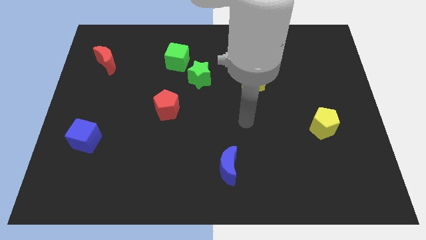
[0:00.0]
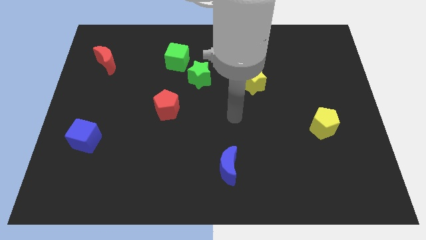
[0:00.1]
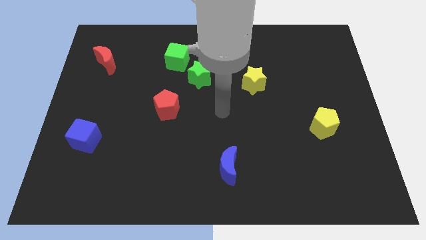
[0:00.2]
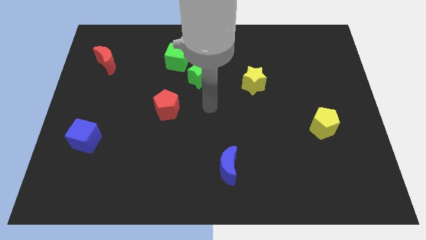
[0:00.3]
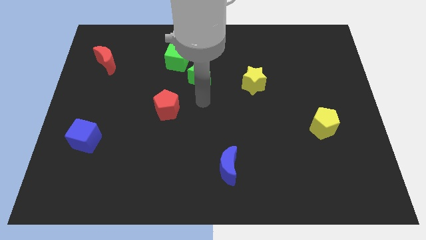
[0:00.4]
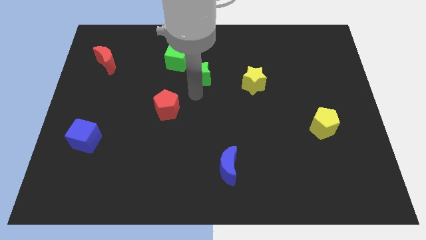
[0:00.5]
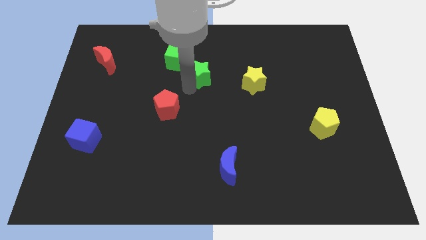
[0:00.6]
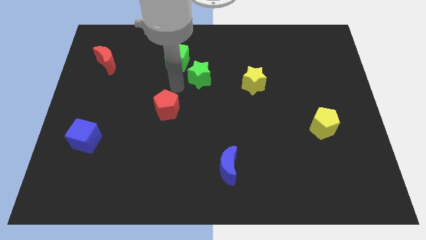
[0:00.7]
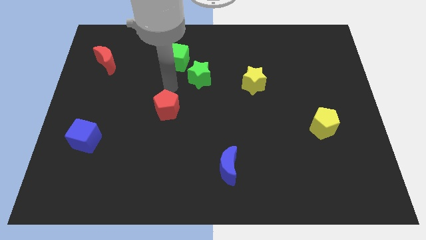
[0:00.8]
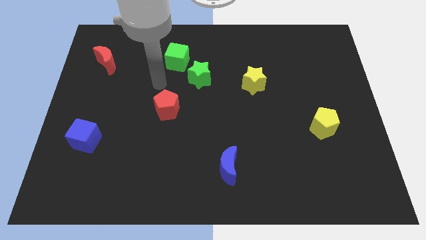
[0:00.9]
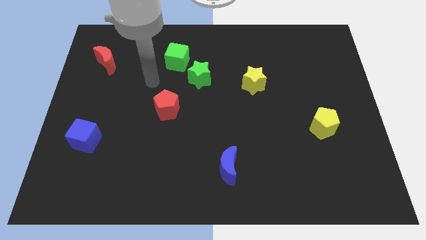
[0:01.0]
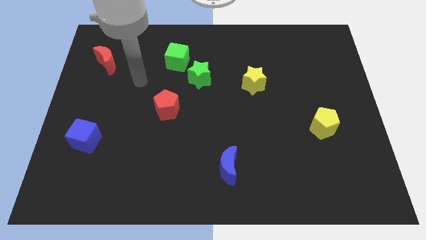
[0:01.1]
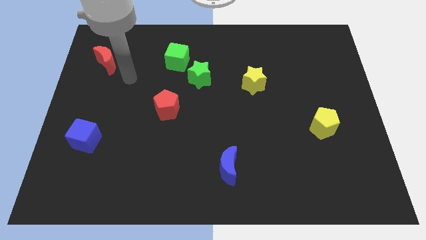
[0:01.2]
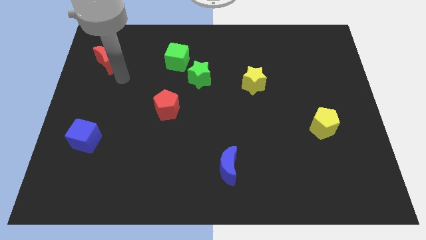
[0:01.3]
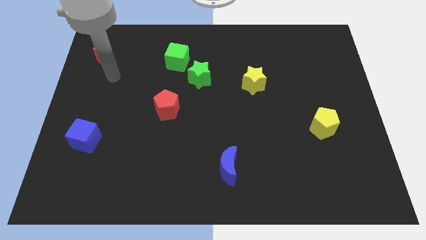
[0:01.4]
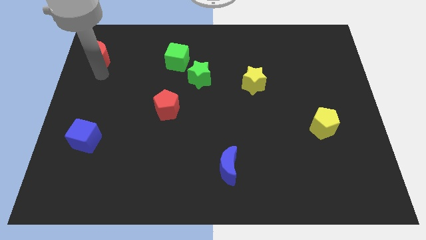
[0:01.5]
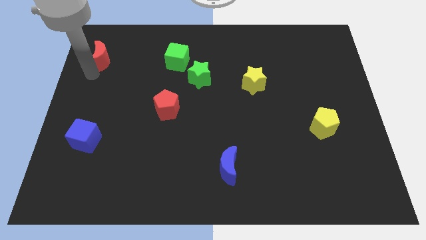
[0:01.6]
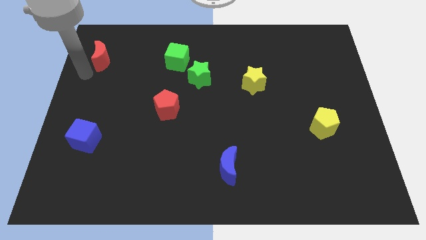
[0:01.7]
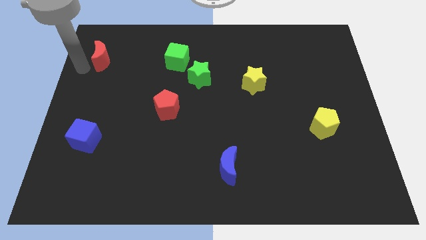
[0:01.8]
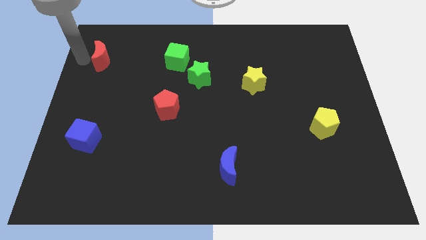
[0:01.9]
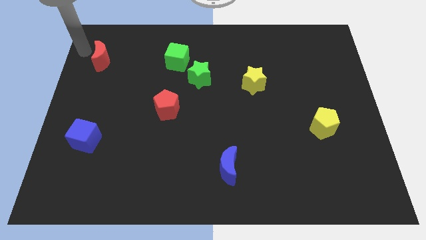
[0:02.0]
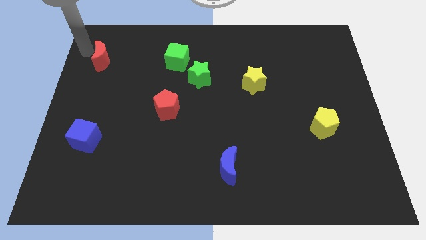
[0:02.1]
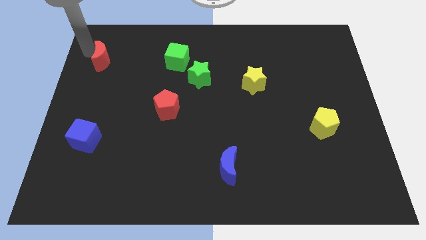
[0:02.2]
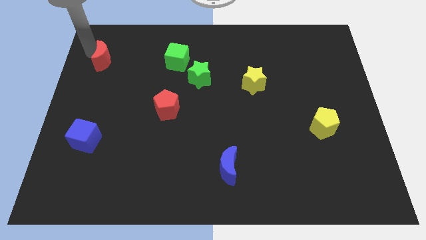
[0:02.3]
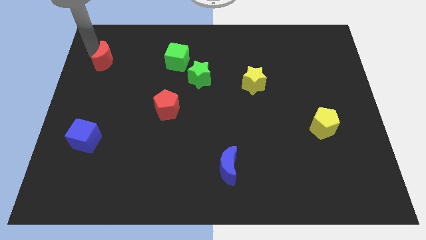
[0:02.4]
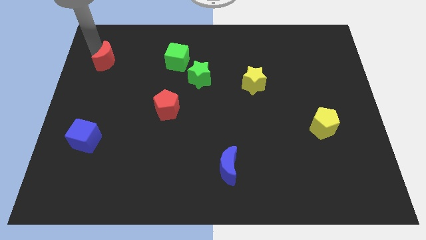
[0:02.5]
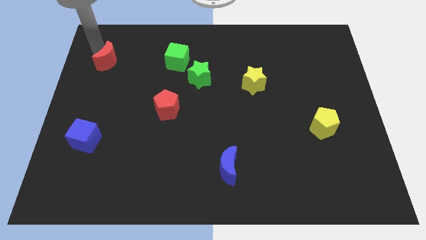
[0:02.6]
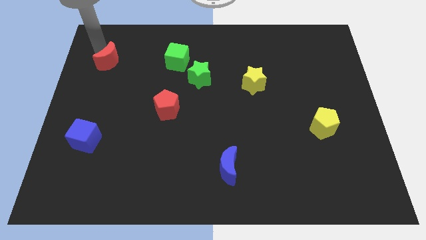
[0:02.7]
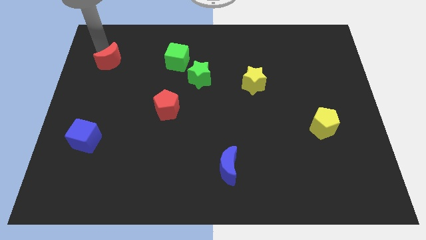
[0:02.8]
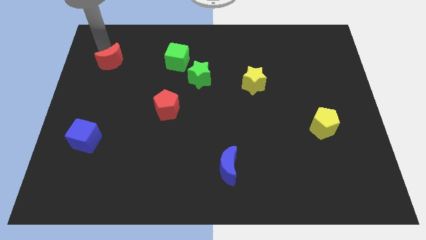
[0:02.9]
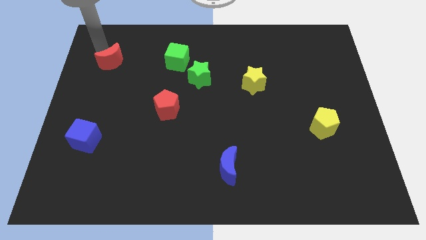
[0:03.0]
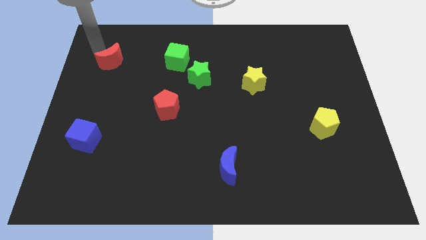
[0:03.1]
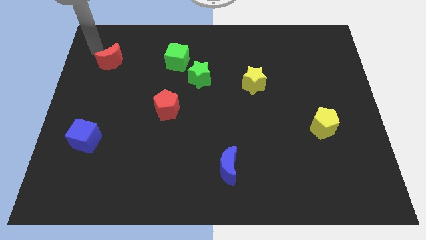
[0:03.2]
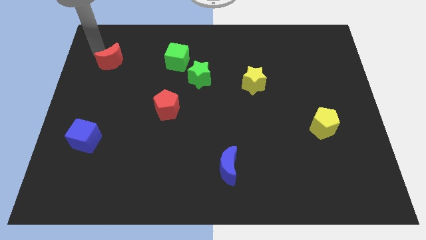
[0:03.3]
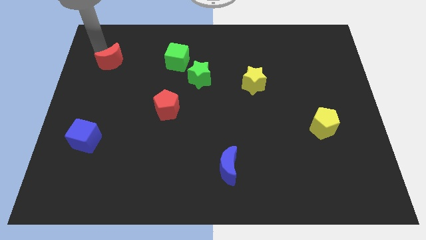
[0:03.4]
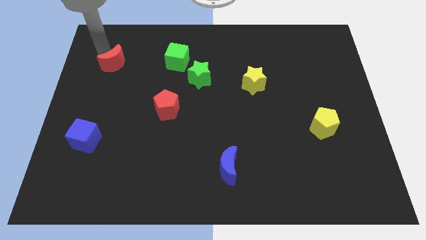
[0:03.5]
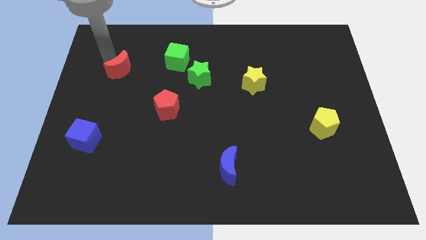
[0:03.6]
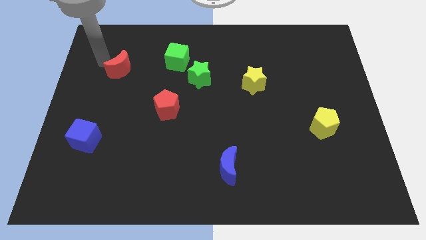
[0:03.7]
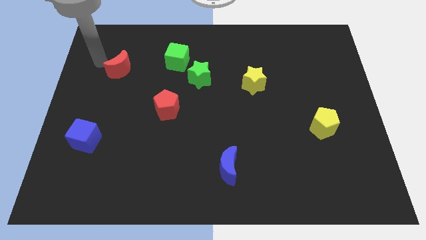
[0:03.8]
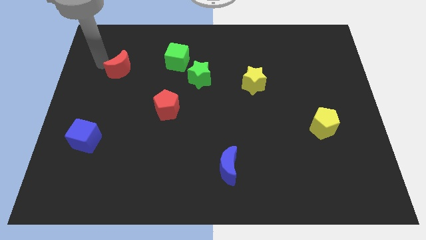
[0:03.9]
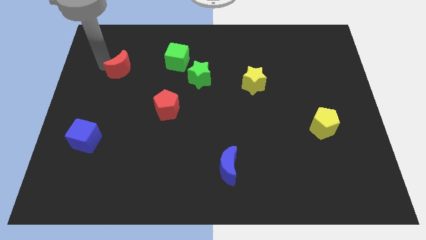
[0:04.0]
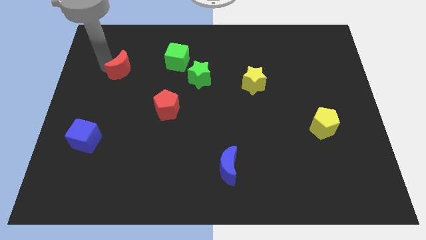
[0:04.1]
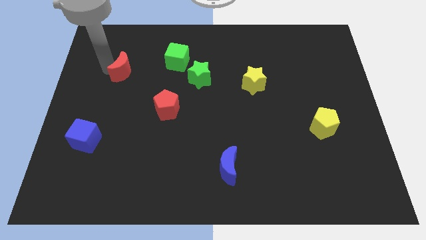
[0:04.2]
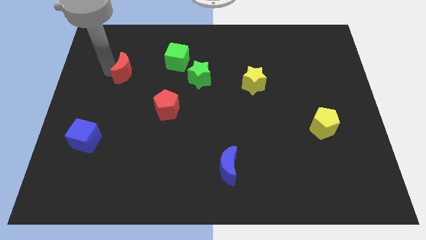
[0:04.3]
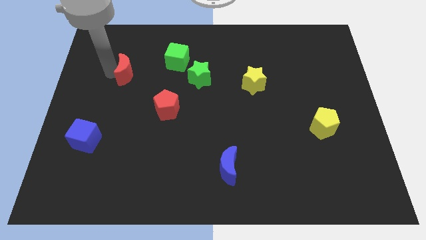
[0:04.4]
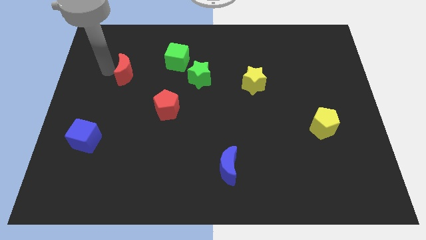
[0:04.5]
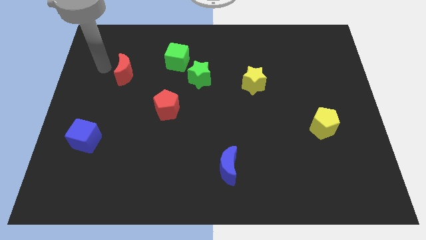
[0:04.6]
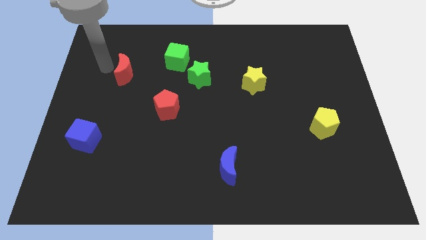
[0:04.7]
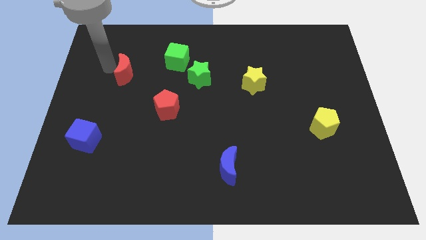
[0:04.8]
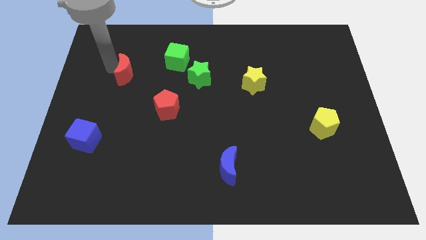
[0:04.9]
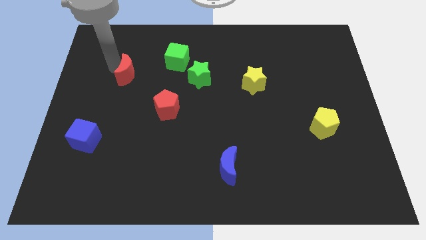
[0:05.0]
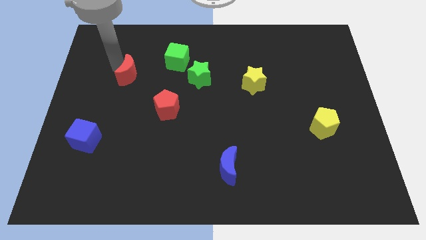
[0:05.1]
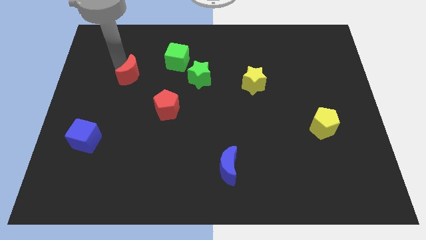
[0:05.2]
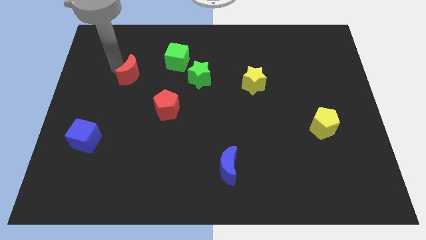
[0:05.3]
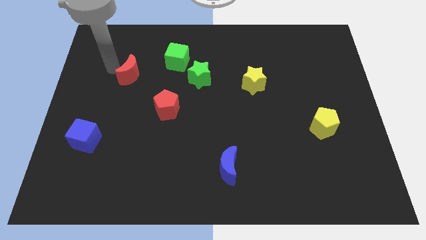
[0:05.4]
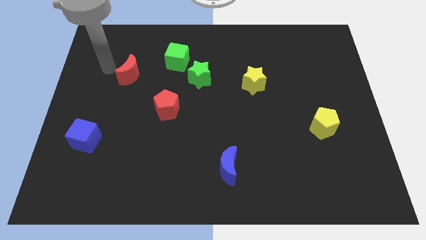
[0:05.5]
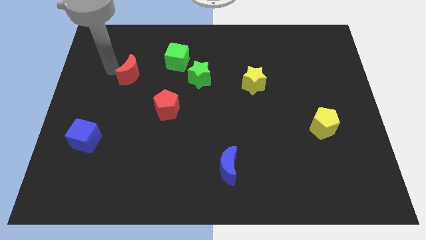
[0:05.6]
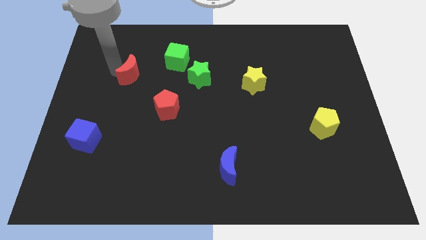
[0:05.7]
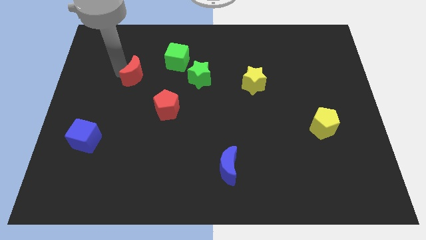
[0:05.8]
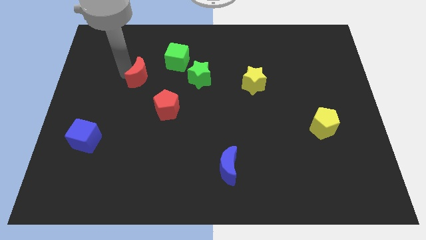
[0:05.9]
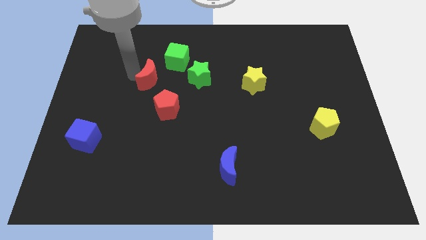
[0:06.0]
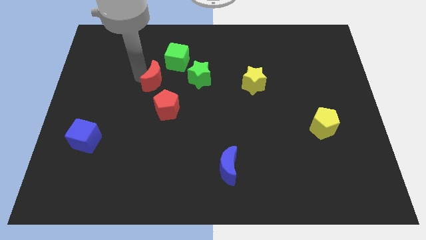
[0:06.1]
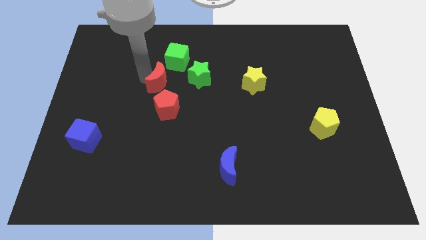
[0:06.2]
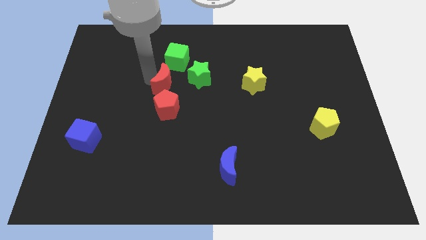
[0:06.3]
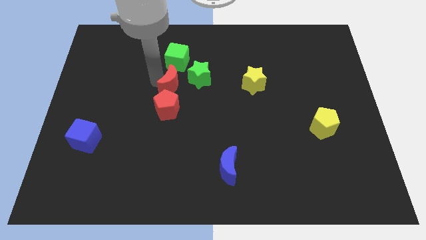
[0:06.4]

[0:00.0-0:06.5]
put the red moon to the top right side of the red pentagon
